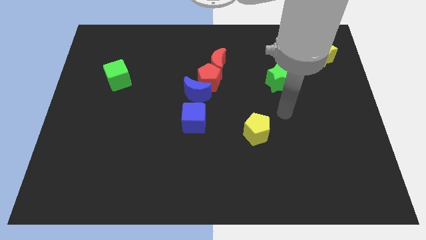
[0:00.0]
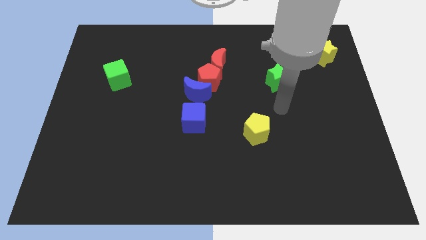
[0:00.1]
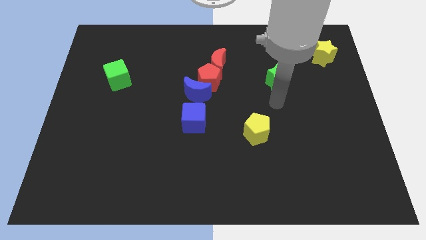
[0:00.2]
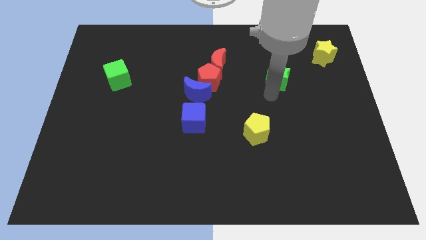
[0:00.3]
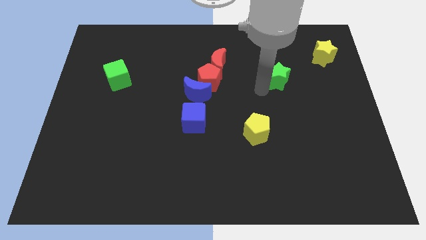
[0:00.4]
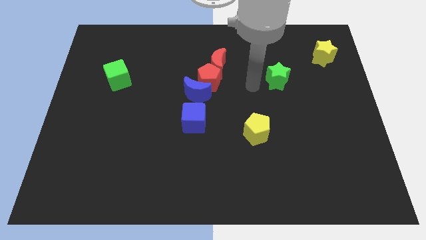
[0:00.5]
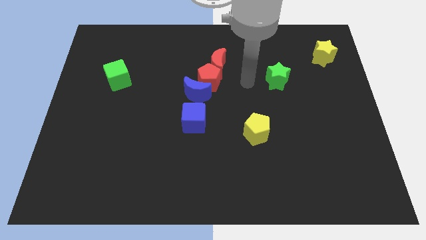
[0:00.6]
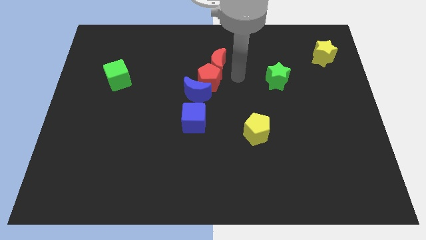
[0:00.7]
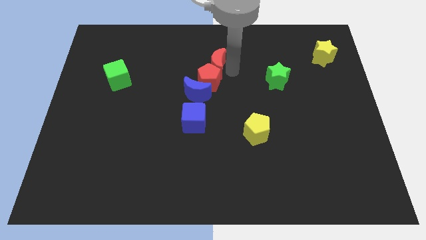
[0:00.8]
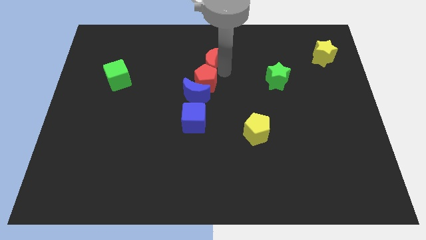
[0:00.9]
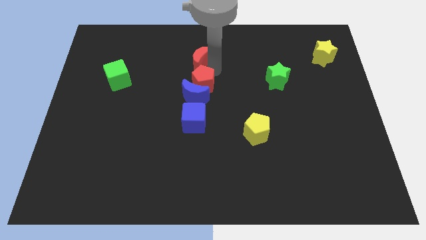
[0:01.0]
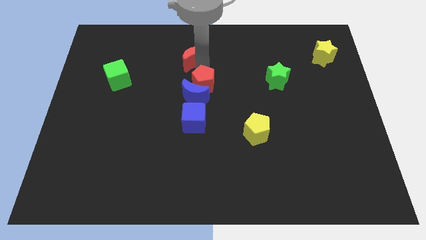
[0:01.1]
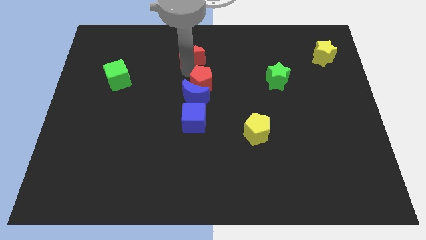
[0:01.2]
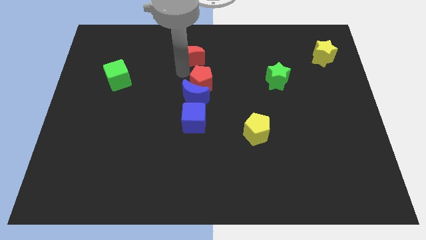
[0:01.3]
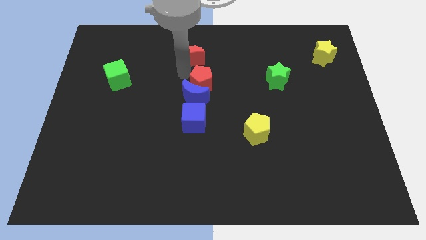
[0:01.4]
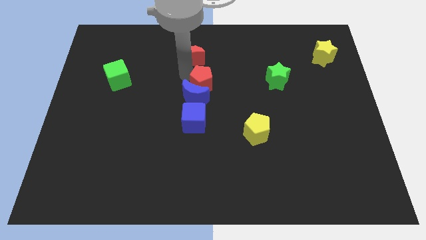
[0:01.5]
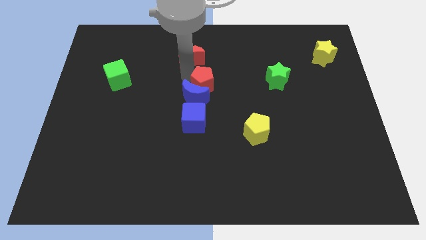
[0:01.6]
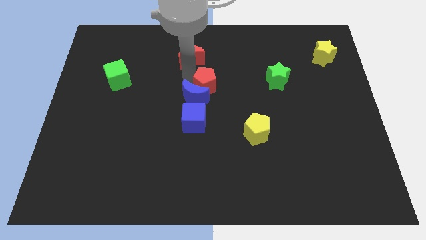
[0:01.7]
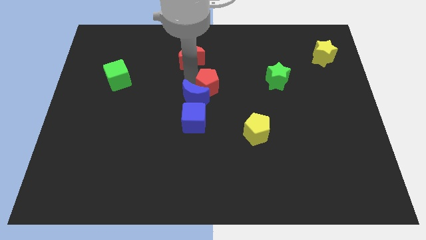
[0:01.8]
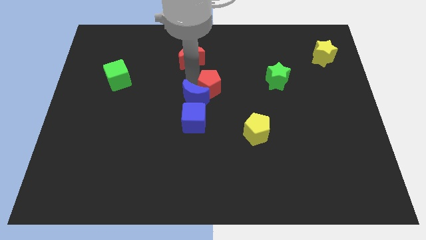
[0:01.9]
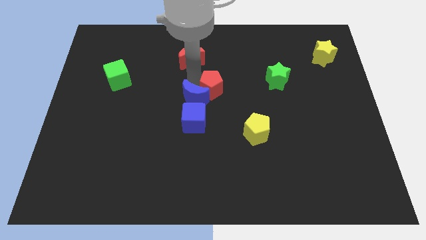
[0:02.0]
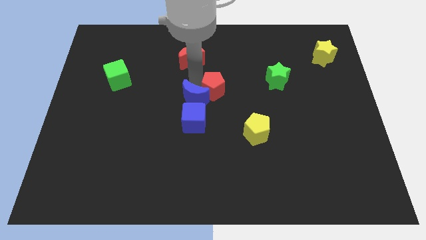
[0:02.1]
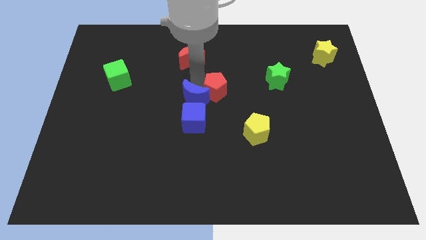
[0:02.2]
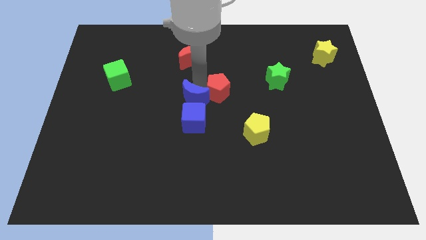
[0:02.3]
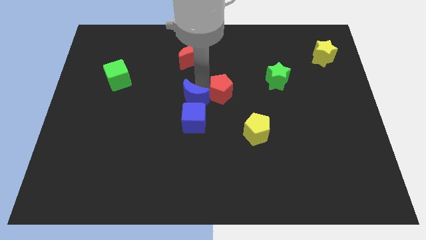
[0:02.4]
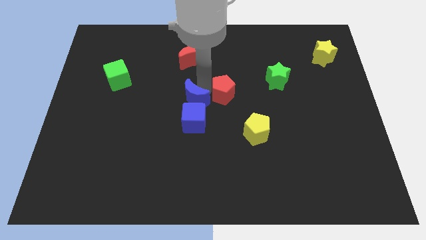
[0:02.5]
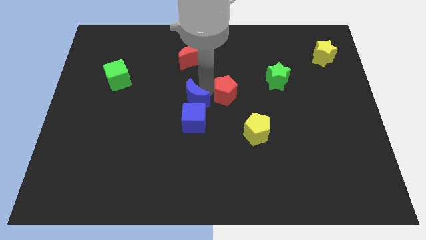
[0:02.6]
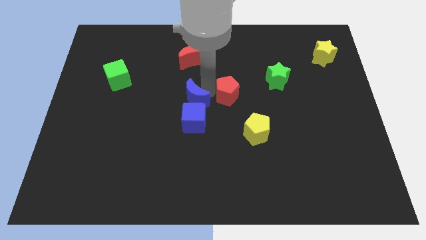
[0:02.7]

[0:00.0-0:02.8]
pull the red pentagon apart from the blue moon and red moon

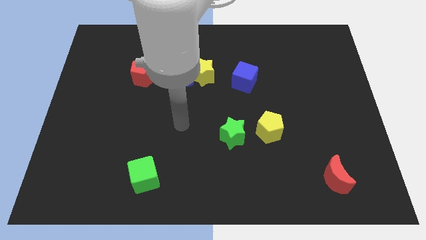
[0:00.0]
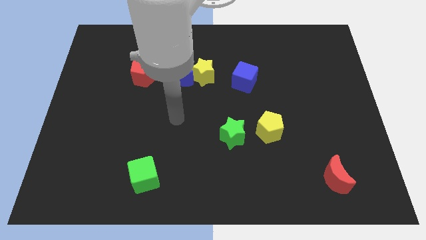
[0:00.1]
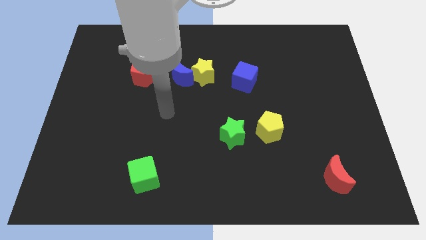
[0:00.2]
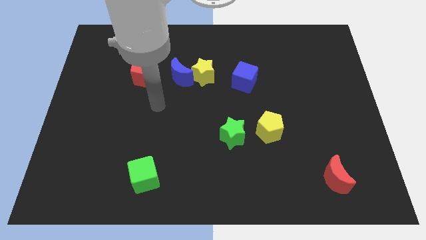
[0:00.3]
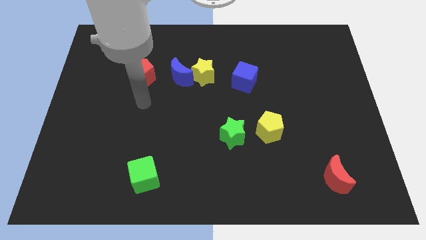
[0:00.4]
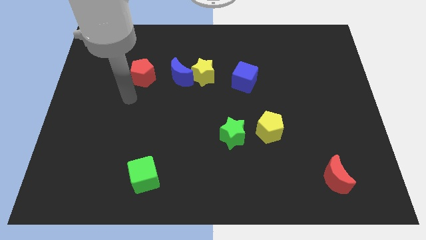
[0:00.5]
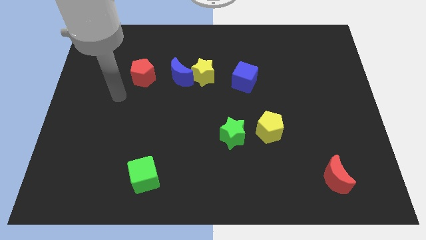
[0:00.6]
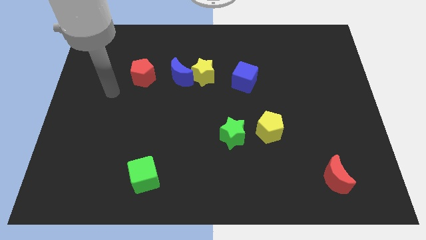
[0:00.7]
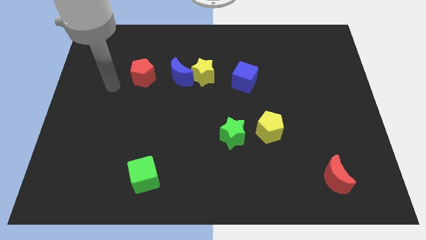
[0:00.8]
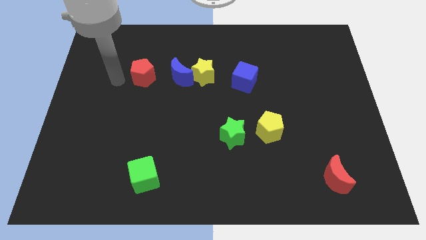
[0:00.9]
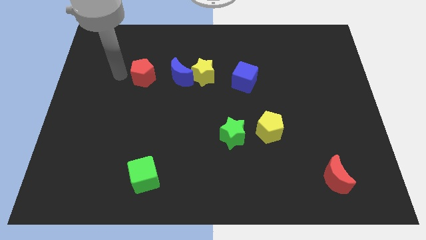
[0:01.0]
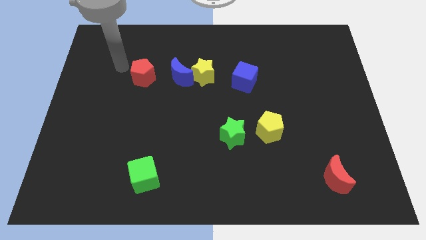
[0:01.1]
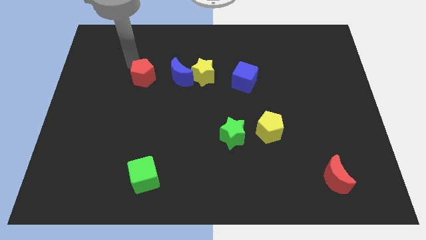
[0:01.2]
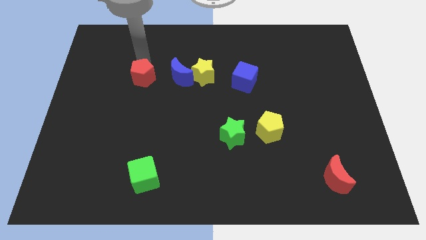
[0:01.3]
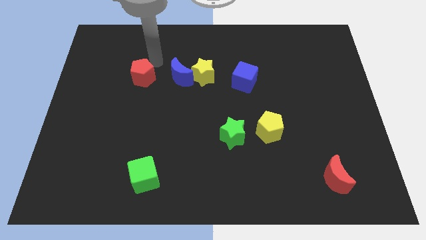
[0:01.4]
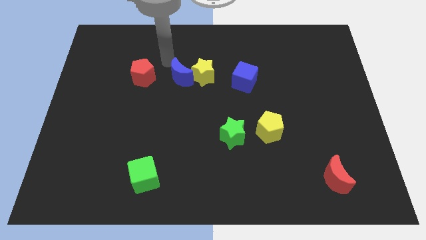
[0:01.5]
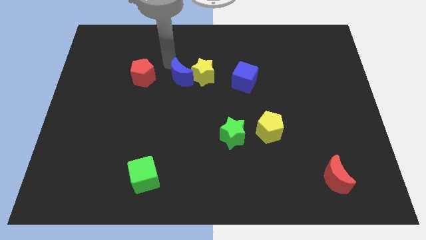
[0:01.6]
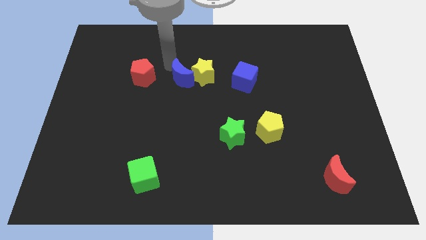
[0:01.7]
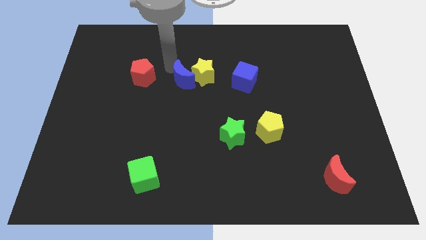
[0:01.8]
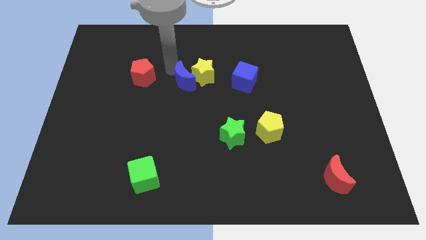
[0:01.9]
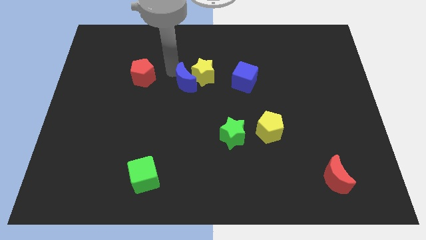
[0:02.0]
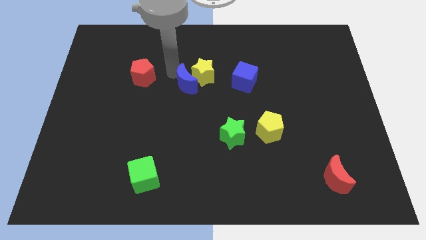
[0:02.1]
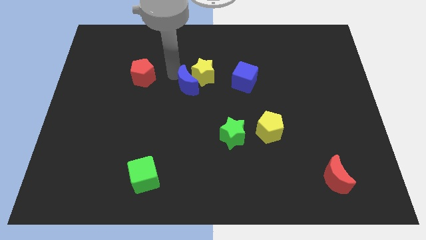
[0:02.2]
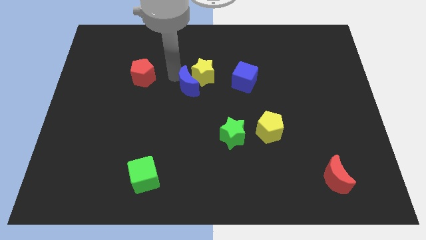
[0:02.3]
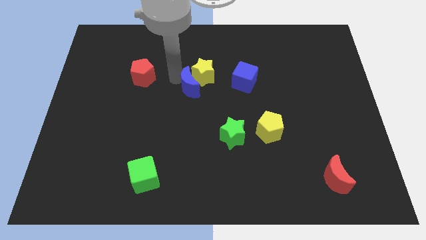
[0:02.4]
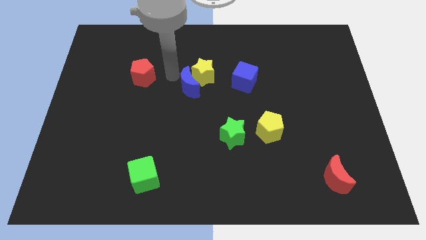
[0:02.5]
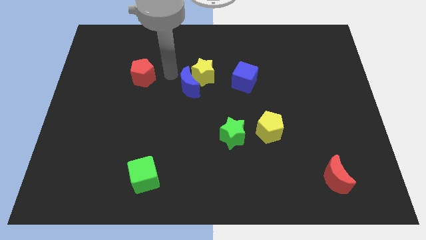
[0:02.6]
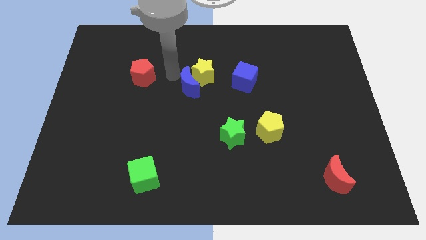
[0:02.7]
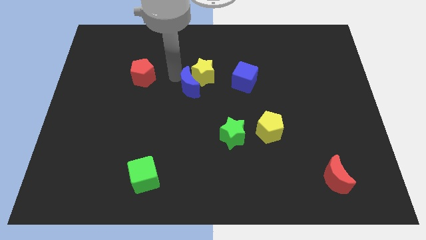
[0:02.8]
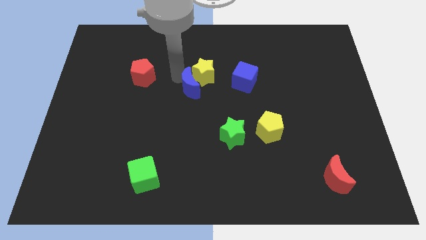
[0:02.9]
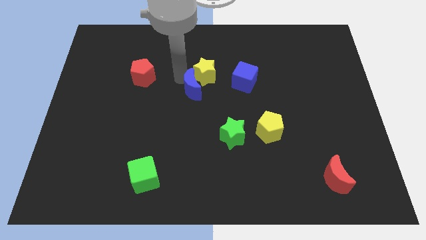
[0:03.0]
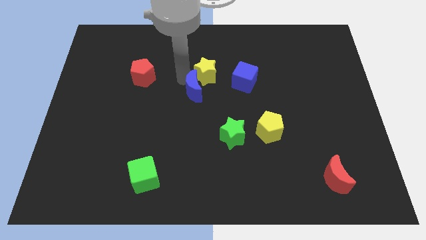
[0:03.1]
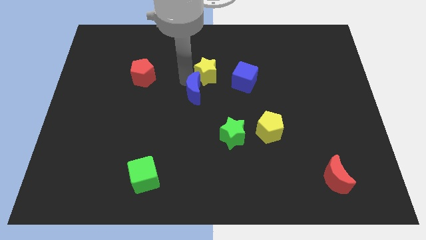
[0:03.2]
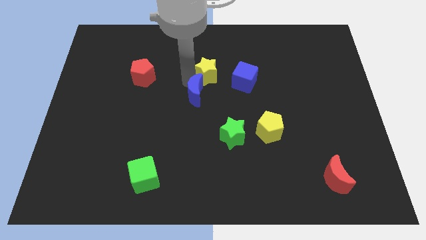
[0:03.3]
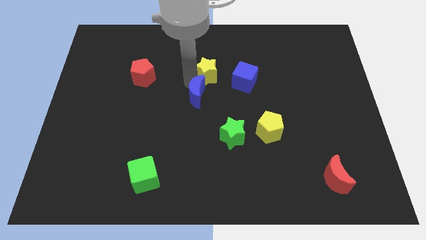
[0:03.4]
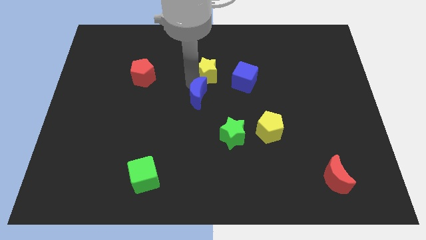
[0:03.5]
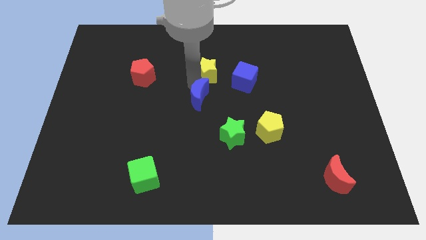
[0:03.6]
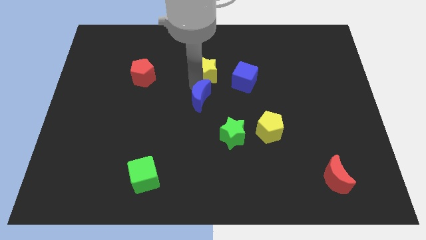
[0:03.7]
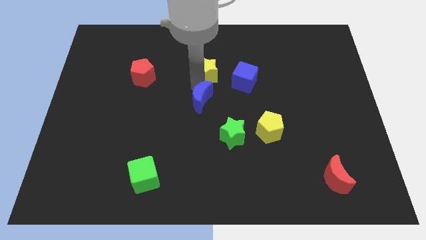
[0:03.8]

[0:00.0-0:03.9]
pull the blue moon apart from the yellow star and red pentagon

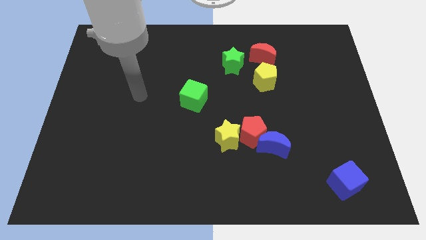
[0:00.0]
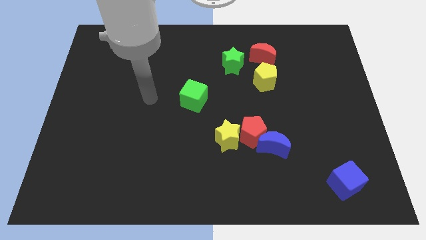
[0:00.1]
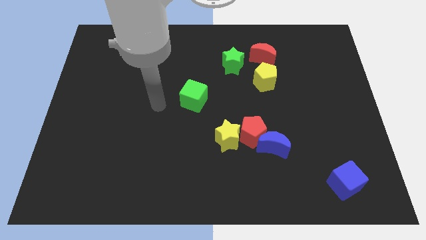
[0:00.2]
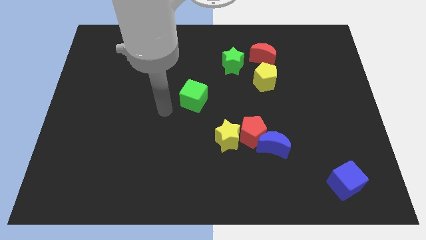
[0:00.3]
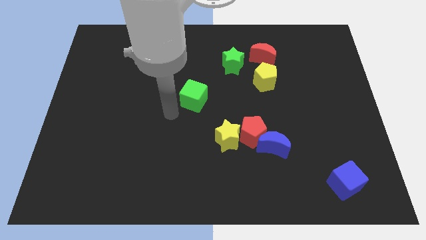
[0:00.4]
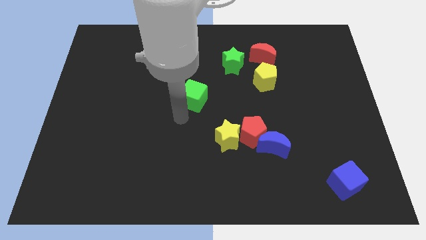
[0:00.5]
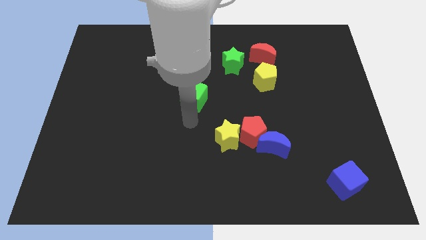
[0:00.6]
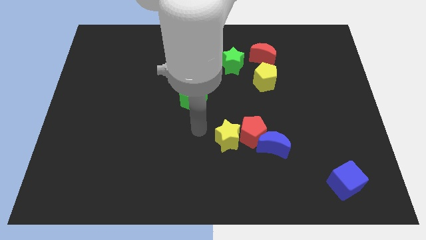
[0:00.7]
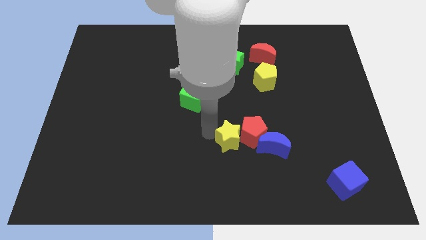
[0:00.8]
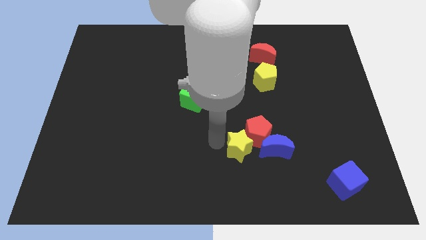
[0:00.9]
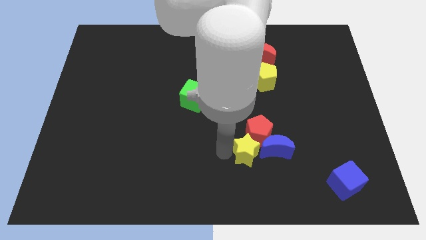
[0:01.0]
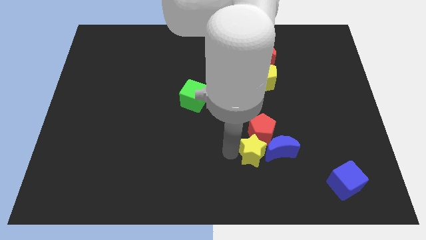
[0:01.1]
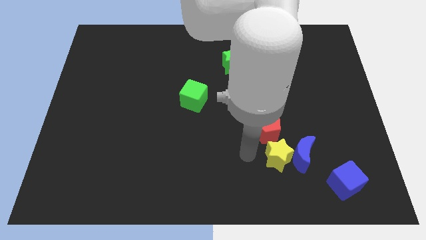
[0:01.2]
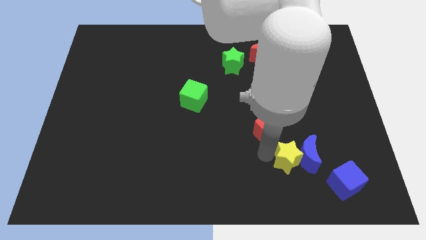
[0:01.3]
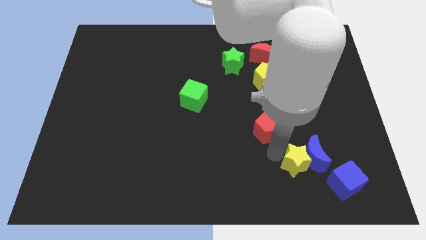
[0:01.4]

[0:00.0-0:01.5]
move the red pentagon away from the blue moon and yellow star

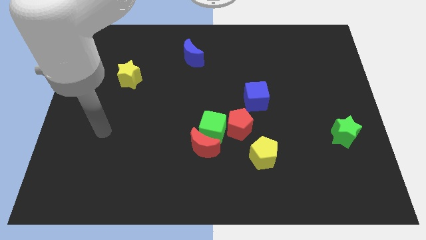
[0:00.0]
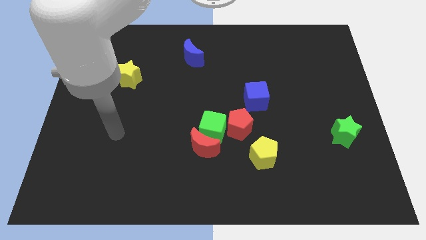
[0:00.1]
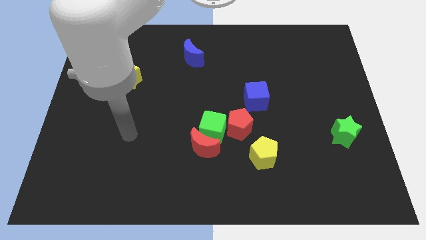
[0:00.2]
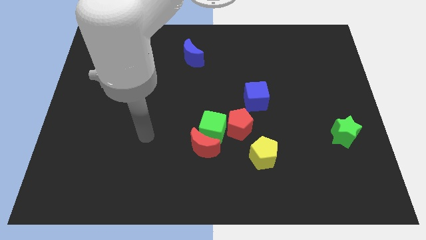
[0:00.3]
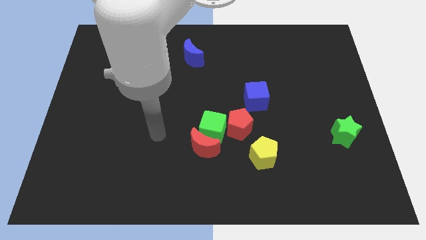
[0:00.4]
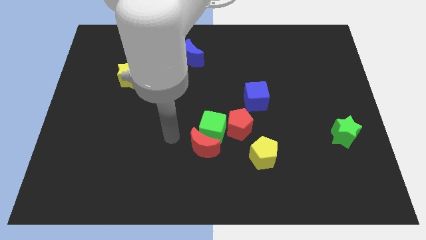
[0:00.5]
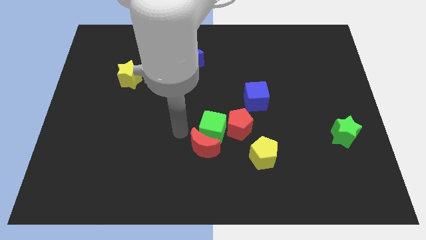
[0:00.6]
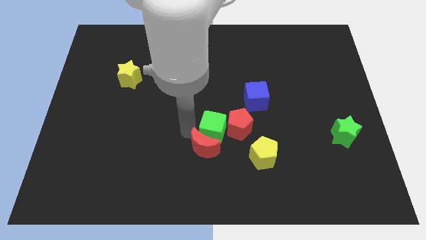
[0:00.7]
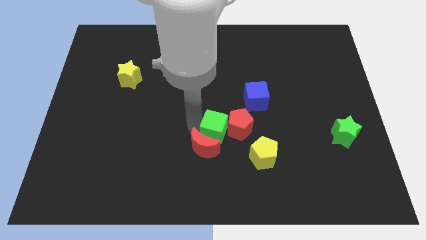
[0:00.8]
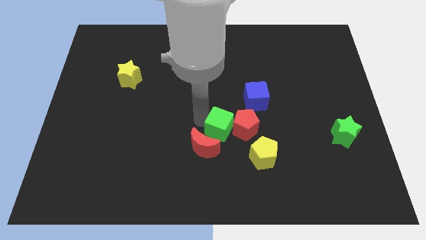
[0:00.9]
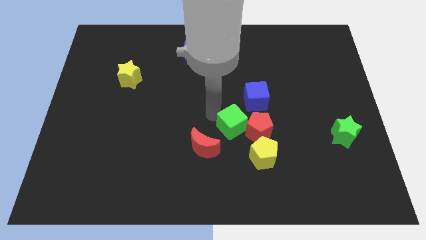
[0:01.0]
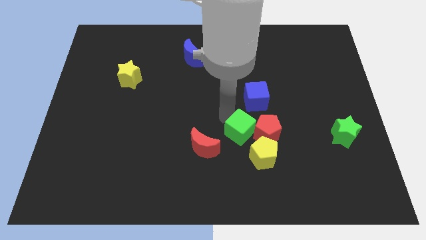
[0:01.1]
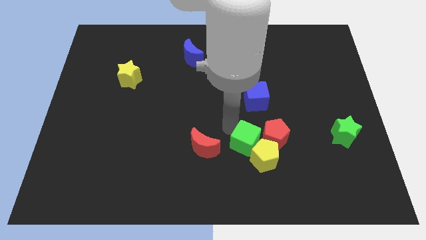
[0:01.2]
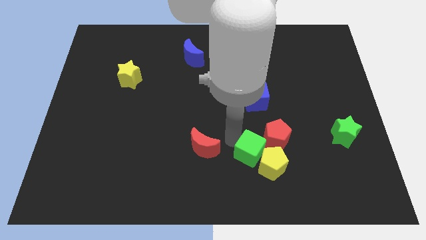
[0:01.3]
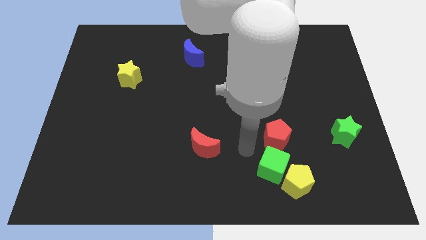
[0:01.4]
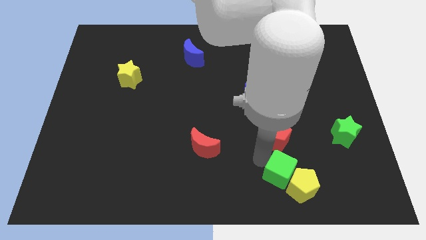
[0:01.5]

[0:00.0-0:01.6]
pull the green cube apart from the red moon and red pentagon
